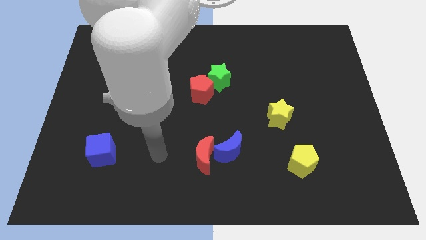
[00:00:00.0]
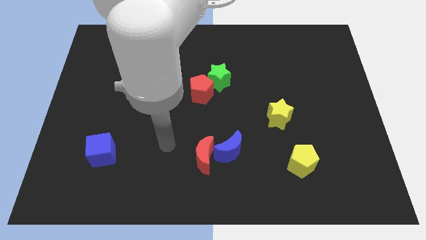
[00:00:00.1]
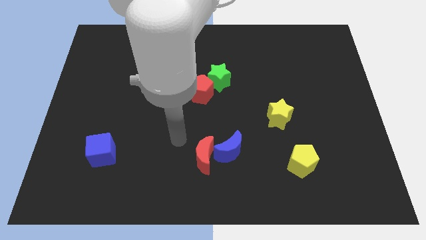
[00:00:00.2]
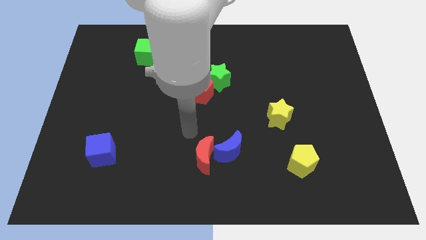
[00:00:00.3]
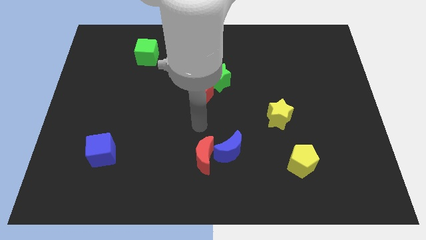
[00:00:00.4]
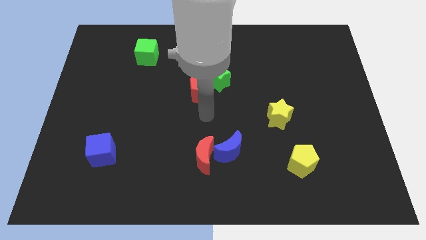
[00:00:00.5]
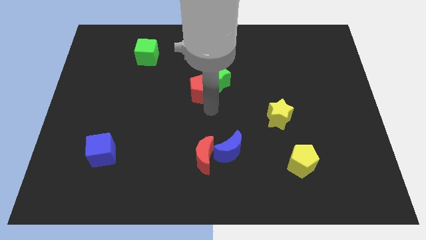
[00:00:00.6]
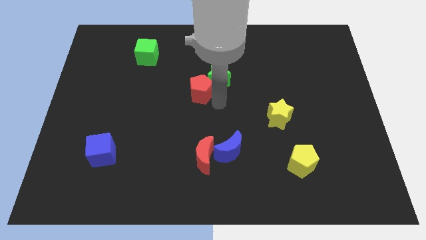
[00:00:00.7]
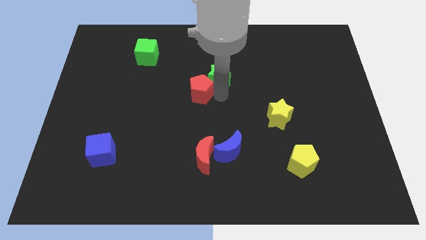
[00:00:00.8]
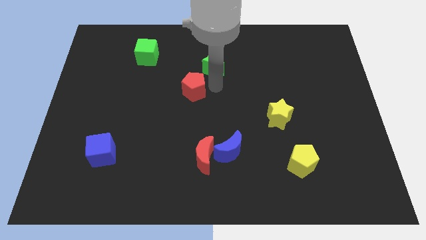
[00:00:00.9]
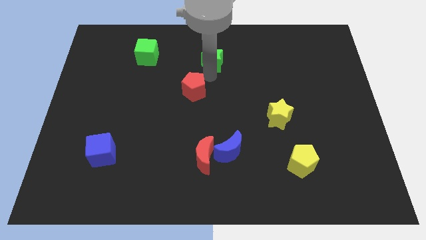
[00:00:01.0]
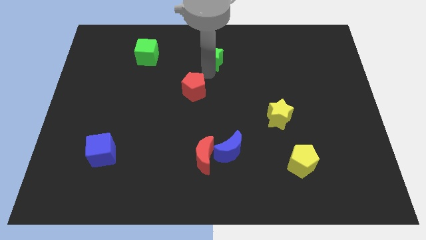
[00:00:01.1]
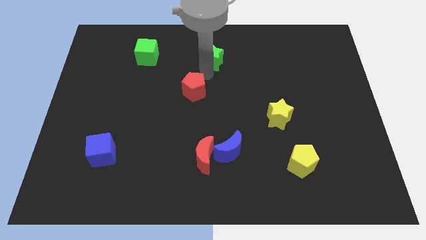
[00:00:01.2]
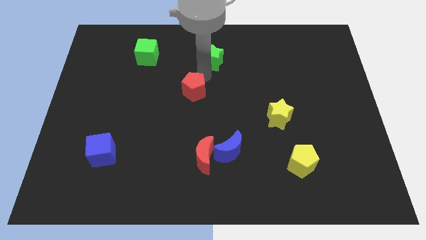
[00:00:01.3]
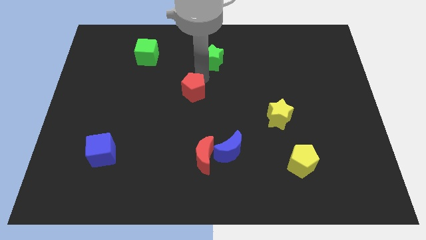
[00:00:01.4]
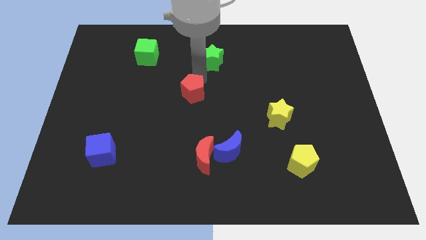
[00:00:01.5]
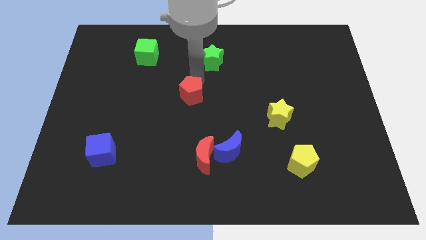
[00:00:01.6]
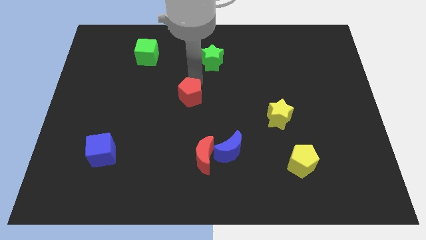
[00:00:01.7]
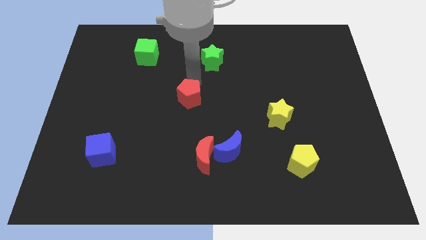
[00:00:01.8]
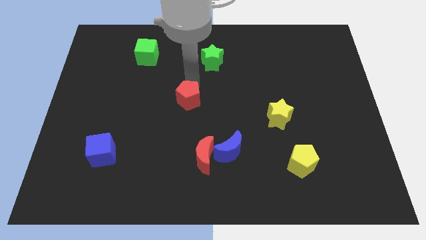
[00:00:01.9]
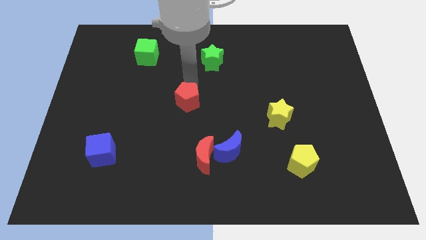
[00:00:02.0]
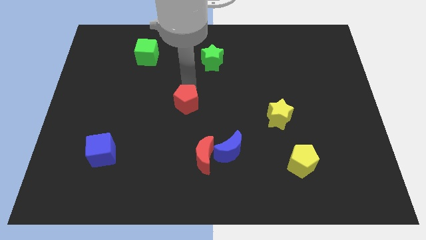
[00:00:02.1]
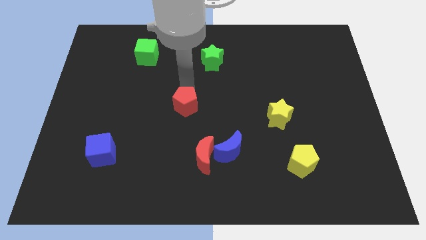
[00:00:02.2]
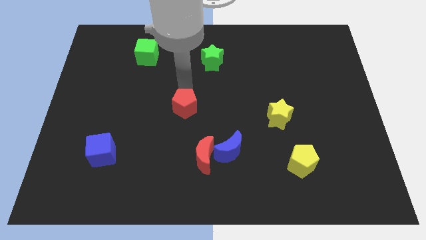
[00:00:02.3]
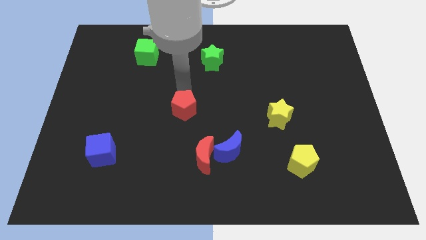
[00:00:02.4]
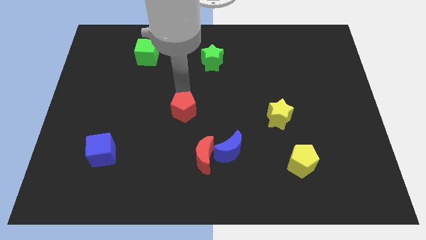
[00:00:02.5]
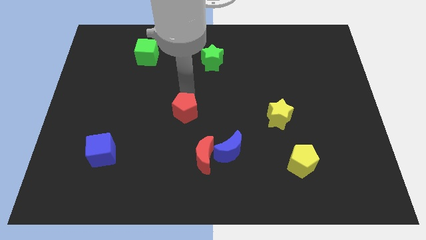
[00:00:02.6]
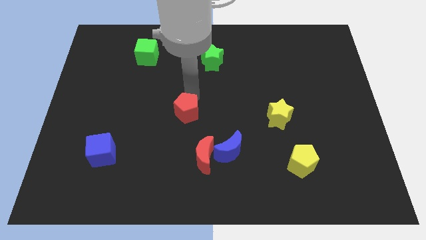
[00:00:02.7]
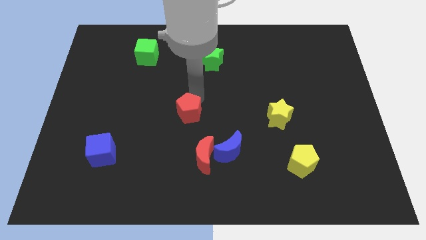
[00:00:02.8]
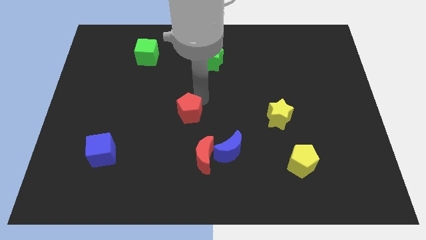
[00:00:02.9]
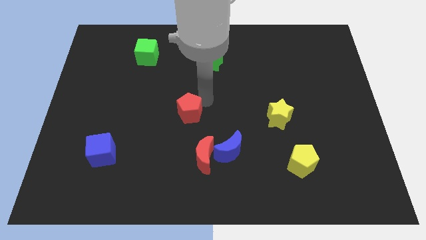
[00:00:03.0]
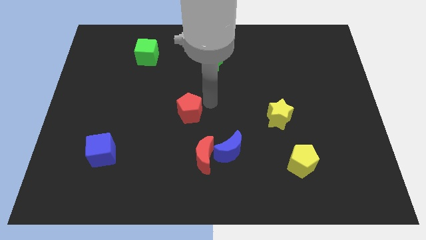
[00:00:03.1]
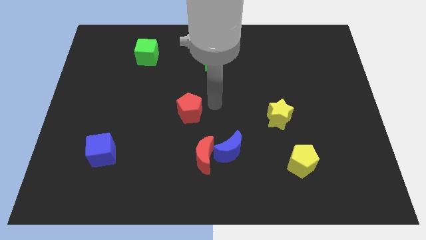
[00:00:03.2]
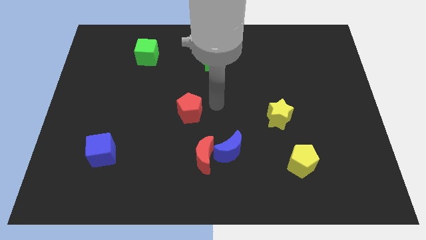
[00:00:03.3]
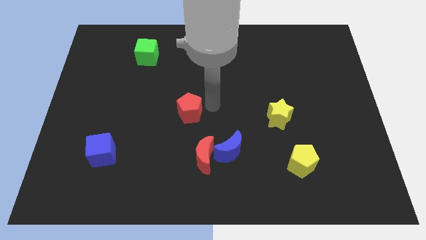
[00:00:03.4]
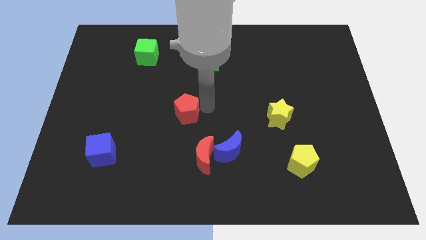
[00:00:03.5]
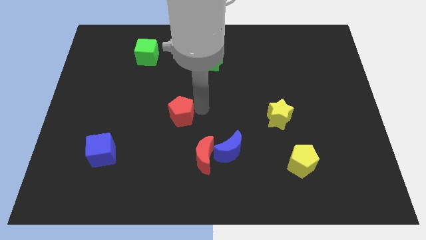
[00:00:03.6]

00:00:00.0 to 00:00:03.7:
slightly slide the red pentagon down and to the left diagonally

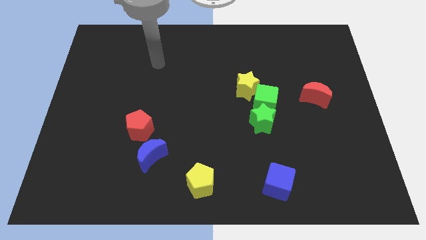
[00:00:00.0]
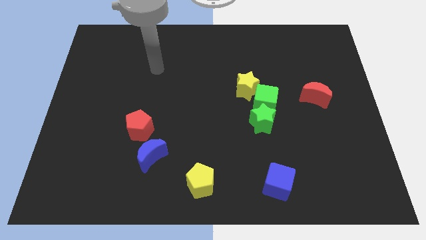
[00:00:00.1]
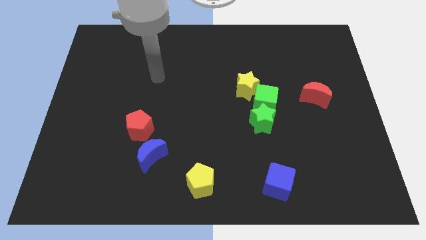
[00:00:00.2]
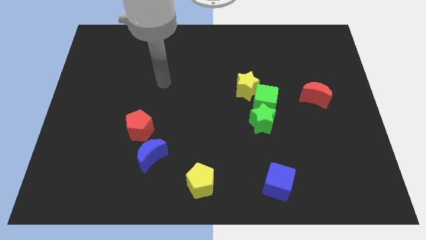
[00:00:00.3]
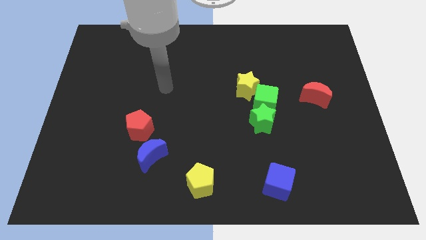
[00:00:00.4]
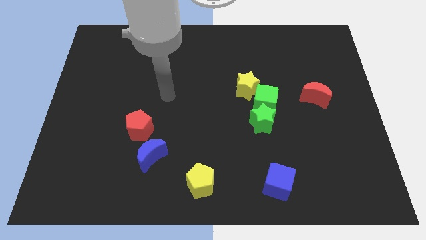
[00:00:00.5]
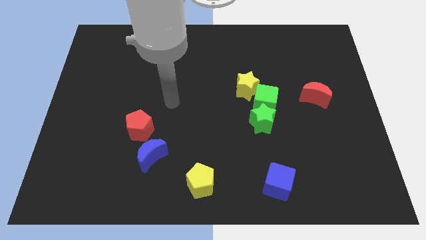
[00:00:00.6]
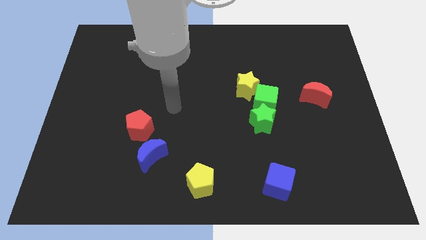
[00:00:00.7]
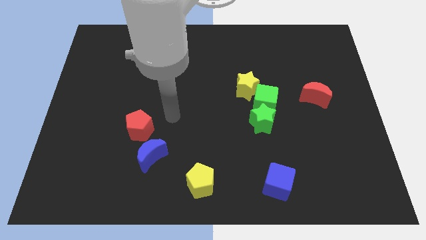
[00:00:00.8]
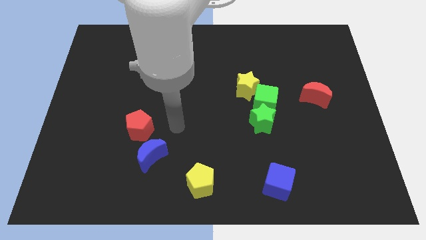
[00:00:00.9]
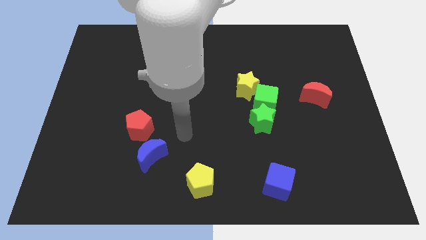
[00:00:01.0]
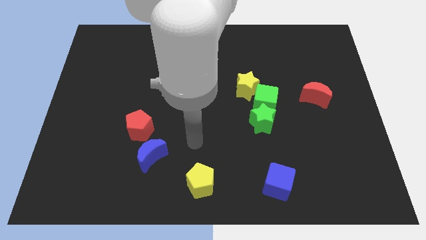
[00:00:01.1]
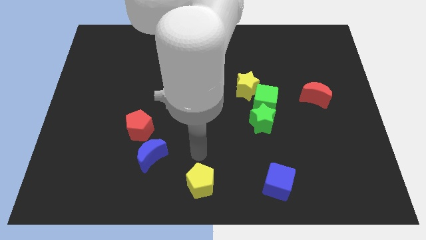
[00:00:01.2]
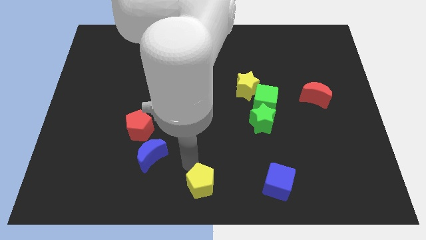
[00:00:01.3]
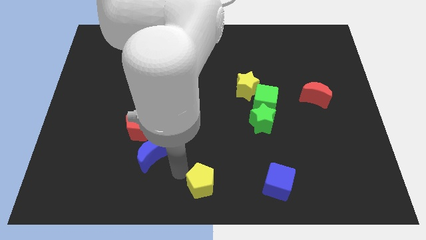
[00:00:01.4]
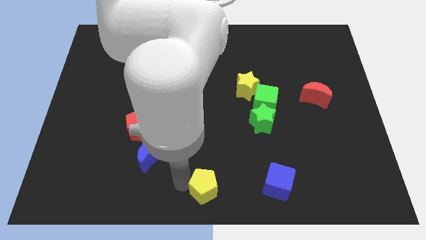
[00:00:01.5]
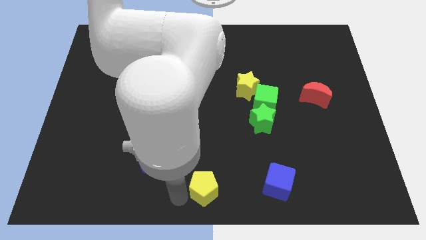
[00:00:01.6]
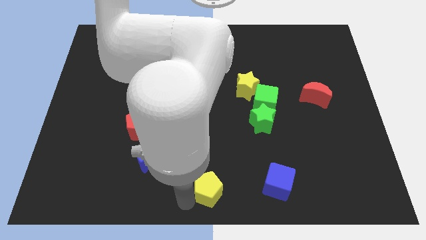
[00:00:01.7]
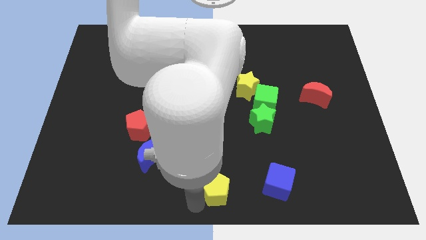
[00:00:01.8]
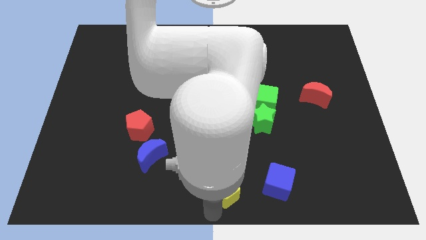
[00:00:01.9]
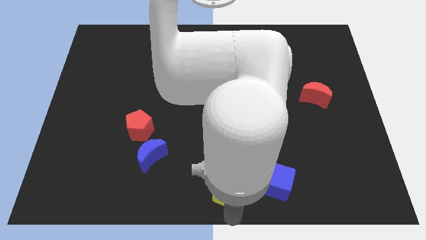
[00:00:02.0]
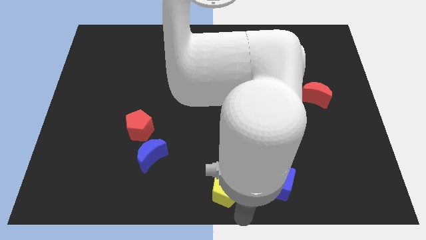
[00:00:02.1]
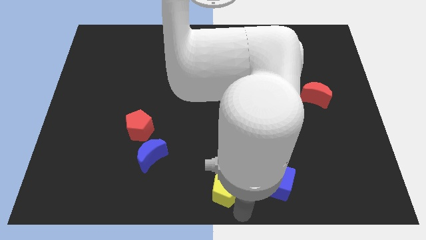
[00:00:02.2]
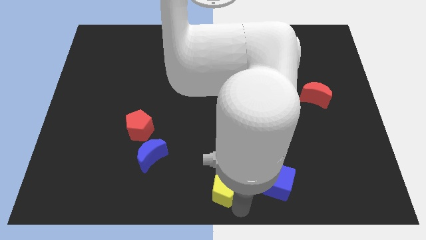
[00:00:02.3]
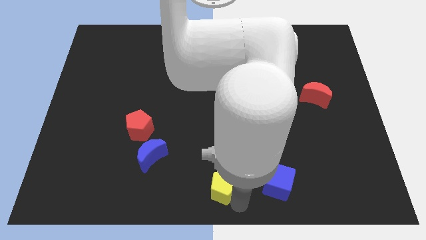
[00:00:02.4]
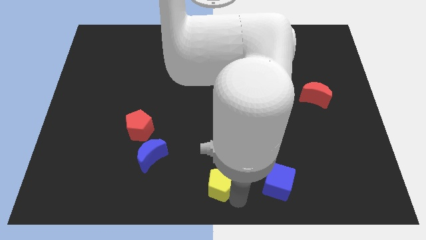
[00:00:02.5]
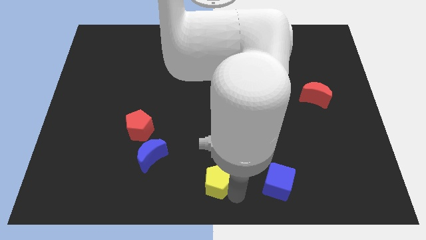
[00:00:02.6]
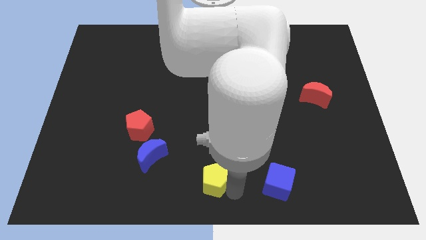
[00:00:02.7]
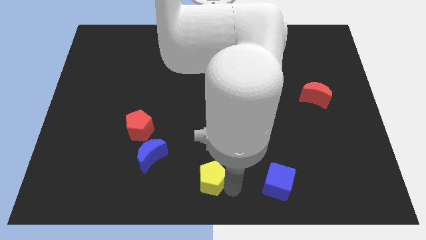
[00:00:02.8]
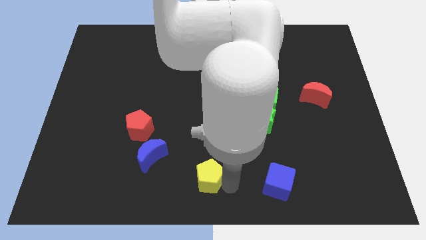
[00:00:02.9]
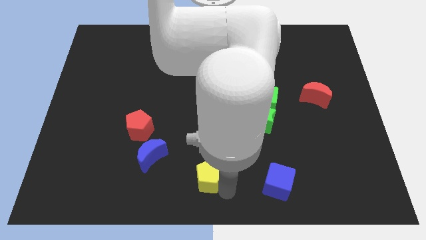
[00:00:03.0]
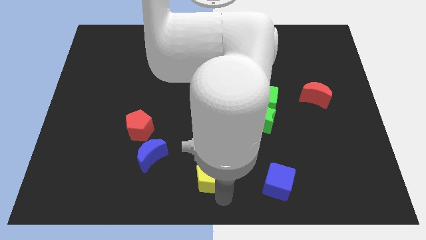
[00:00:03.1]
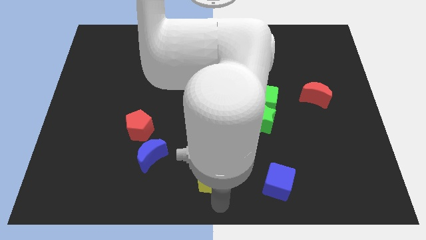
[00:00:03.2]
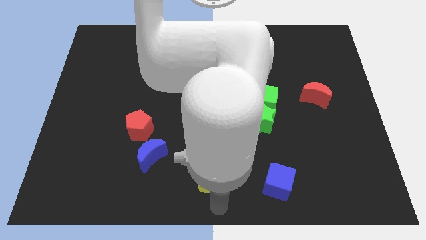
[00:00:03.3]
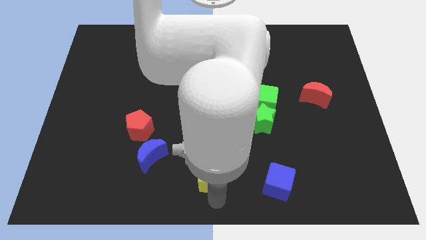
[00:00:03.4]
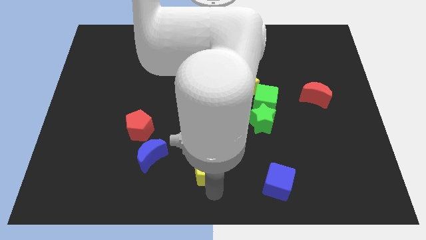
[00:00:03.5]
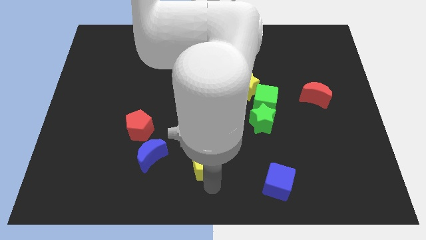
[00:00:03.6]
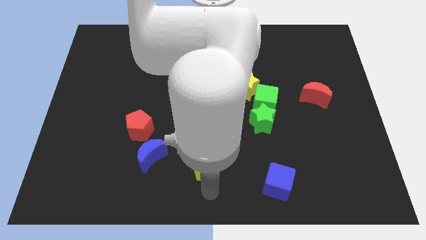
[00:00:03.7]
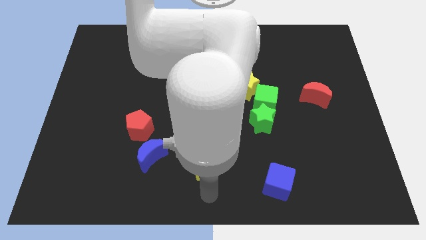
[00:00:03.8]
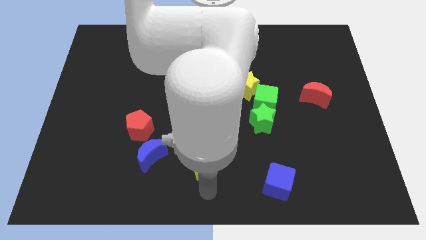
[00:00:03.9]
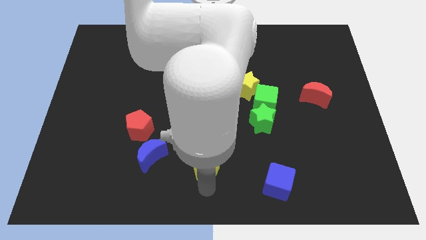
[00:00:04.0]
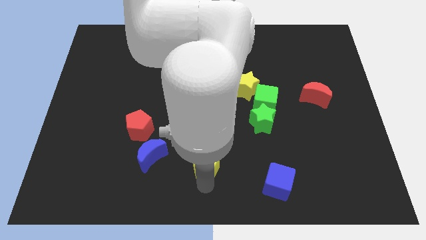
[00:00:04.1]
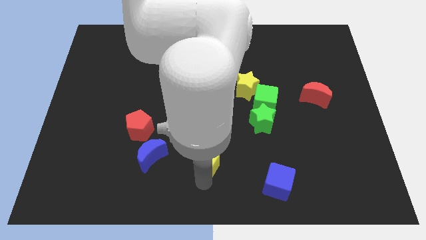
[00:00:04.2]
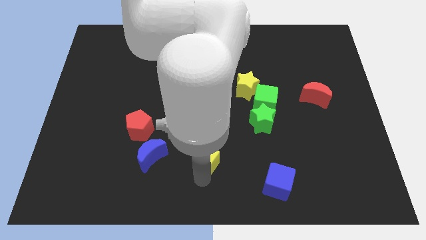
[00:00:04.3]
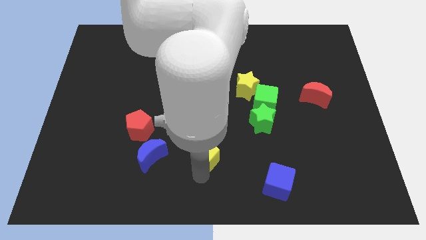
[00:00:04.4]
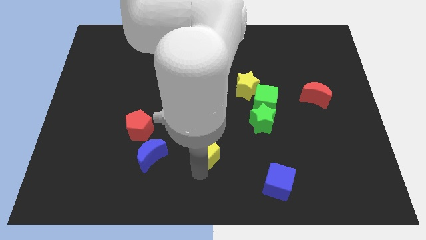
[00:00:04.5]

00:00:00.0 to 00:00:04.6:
slide the yellow pentagon upwards a bit
